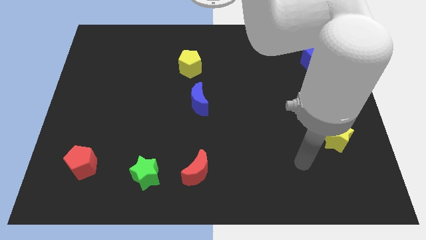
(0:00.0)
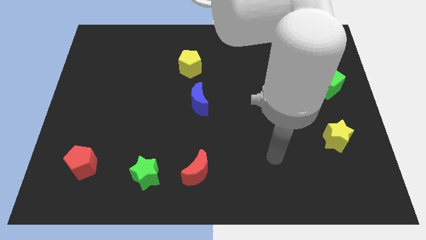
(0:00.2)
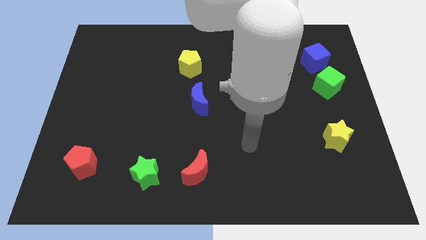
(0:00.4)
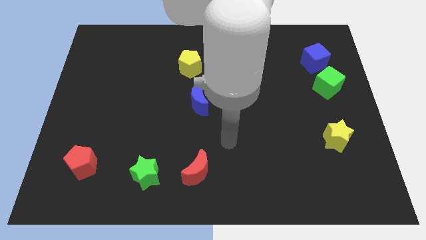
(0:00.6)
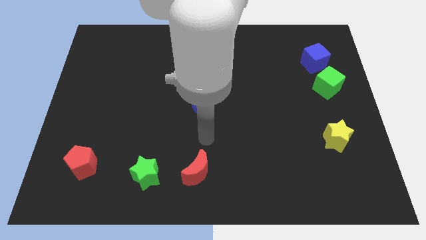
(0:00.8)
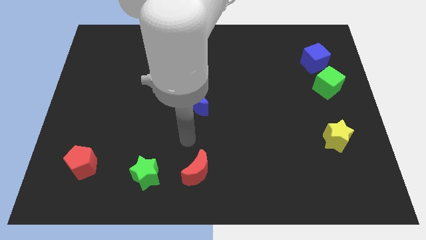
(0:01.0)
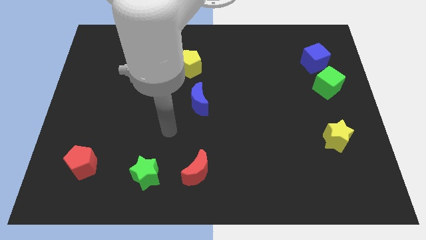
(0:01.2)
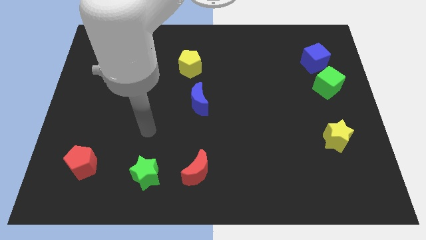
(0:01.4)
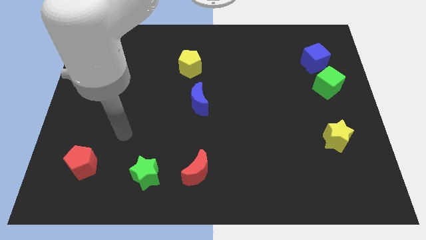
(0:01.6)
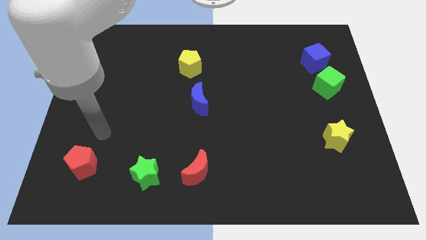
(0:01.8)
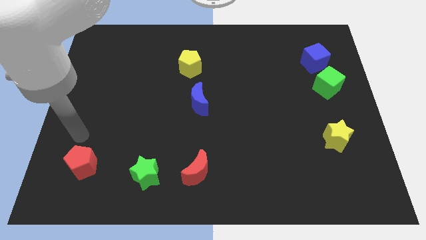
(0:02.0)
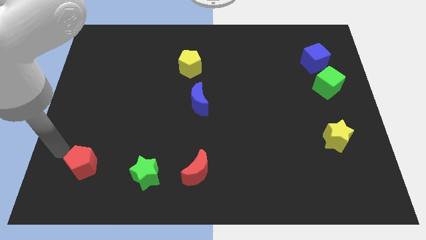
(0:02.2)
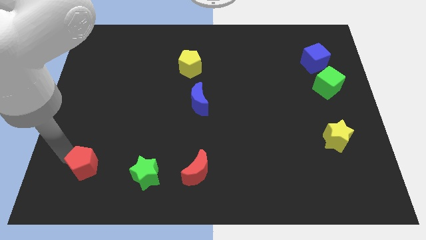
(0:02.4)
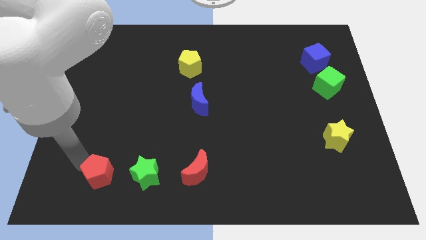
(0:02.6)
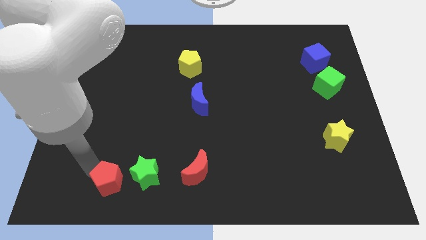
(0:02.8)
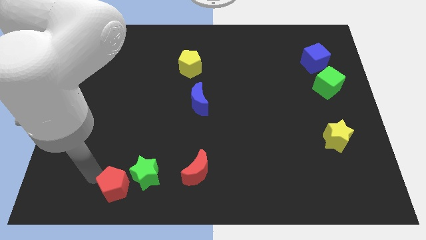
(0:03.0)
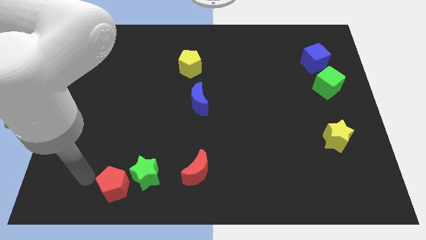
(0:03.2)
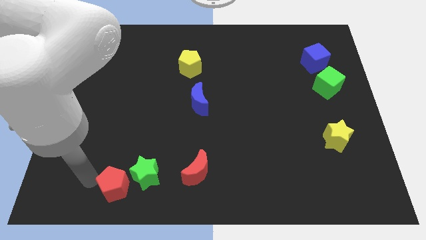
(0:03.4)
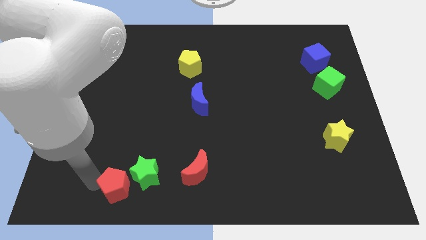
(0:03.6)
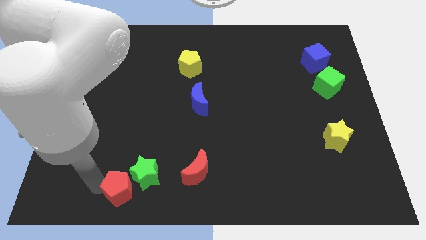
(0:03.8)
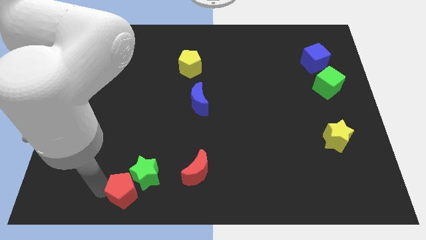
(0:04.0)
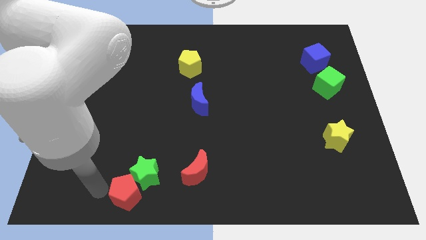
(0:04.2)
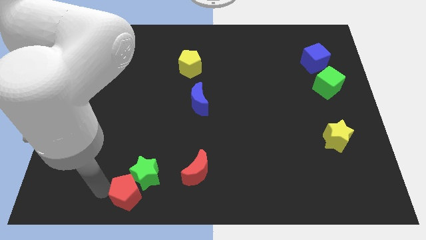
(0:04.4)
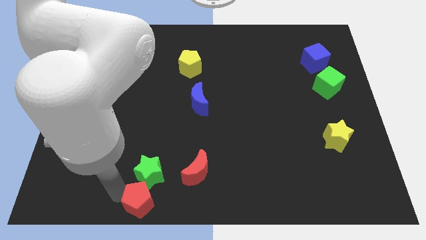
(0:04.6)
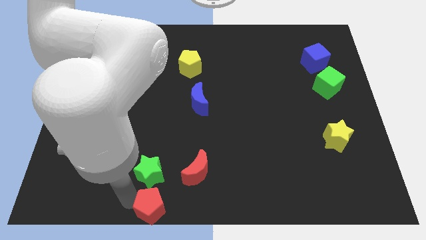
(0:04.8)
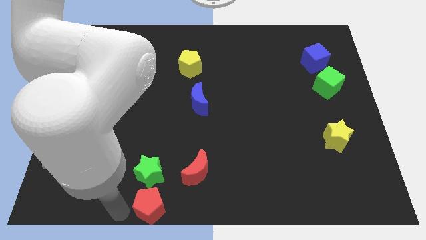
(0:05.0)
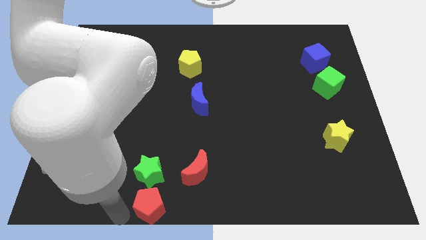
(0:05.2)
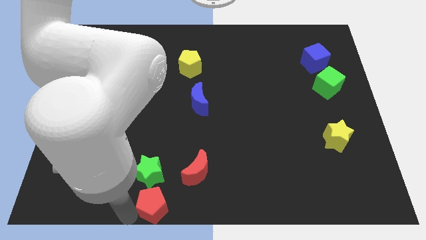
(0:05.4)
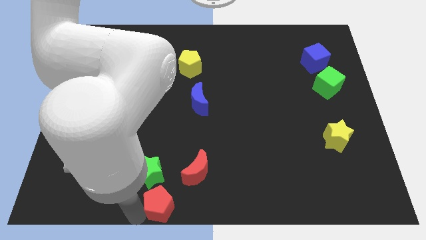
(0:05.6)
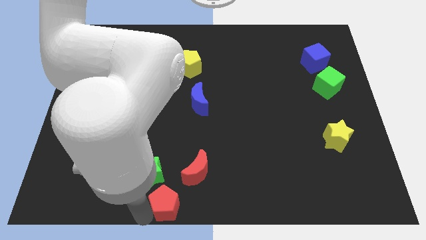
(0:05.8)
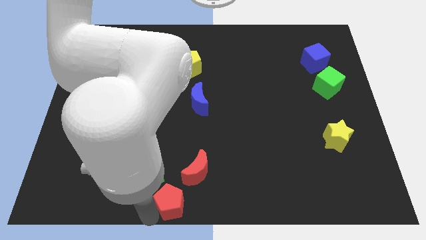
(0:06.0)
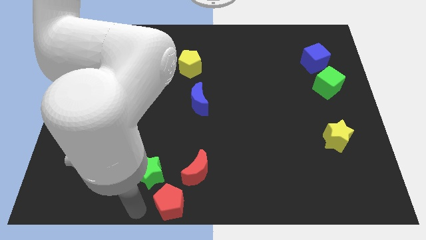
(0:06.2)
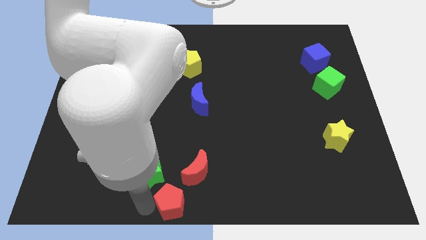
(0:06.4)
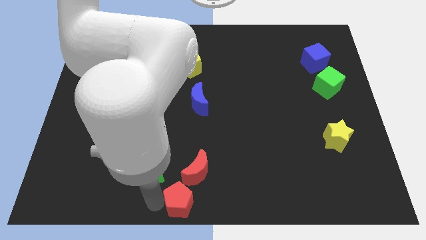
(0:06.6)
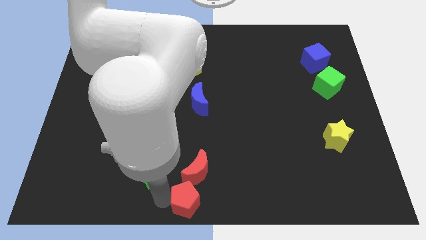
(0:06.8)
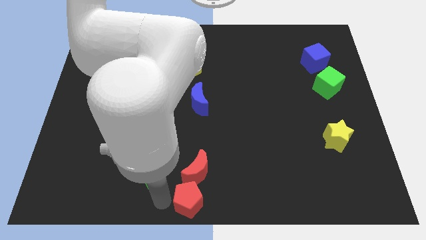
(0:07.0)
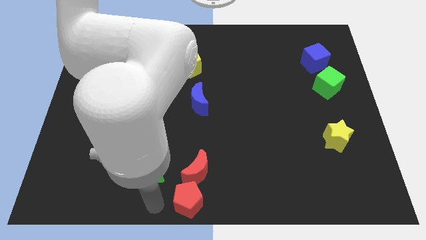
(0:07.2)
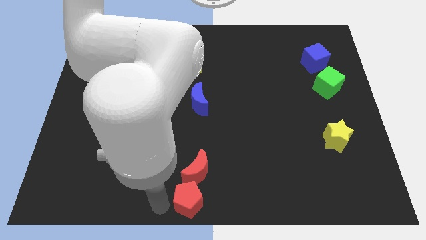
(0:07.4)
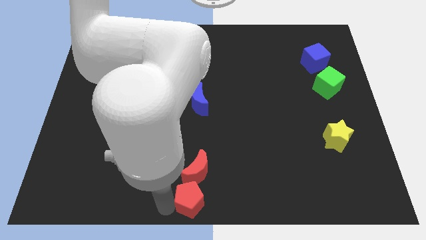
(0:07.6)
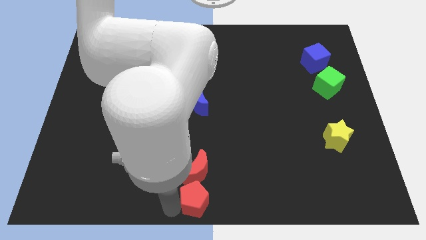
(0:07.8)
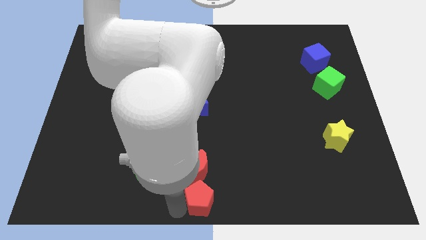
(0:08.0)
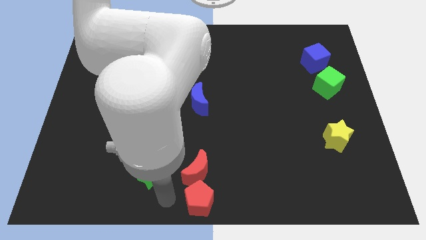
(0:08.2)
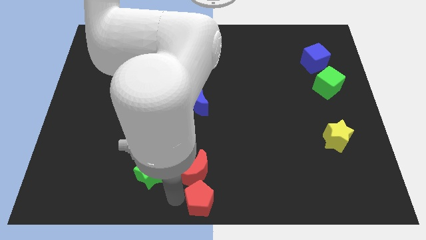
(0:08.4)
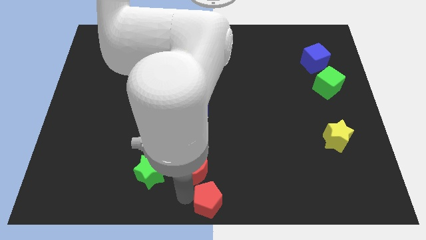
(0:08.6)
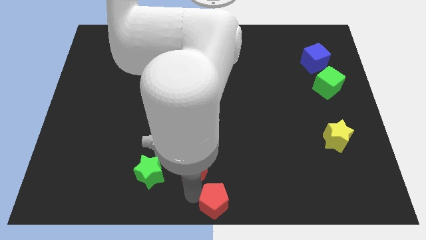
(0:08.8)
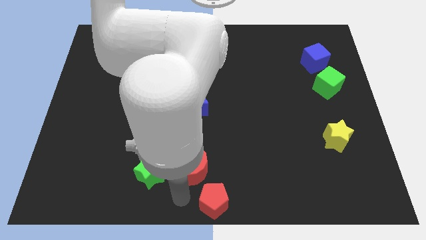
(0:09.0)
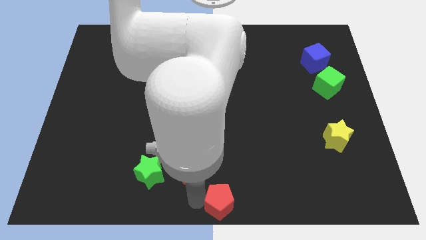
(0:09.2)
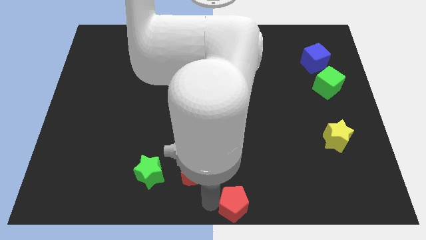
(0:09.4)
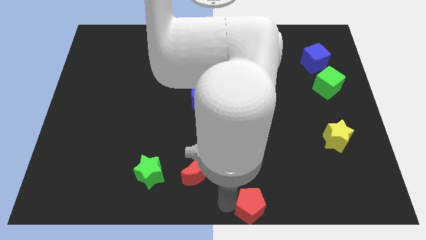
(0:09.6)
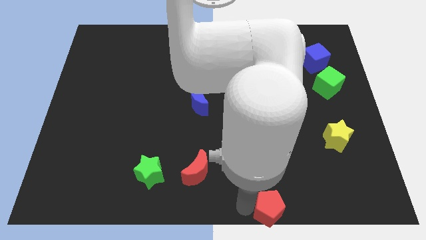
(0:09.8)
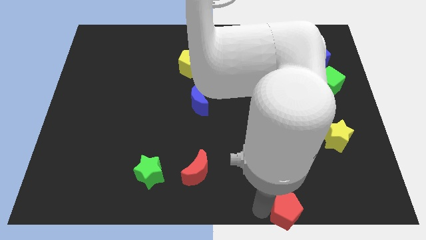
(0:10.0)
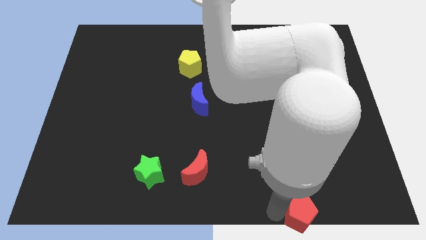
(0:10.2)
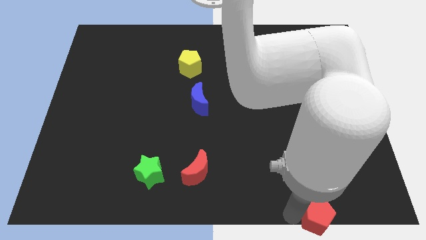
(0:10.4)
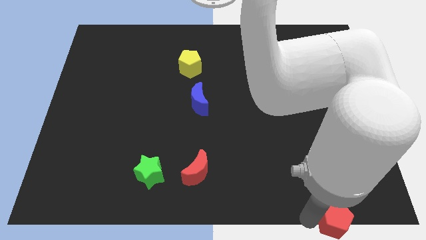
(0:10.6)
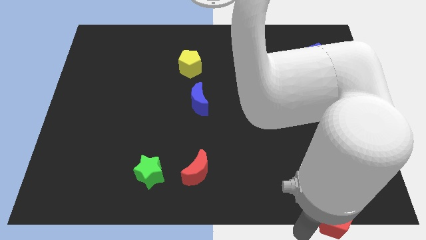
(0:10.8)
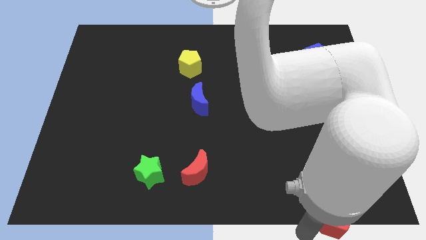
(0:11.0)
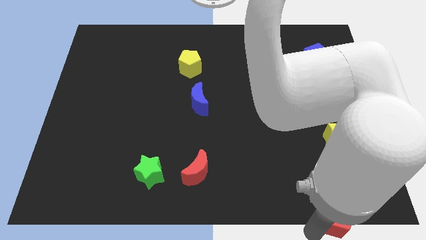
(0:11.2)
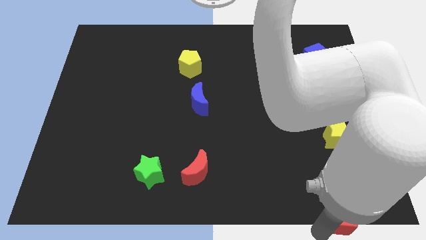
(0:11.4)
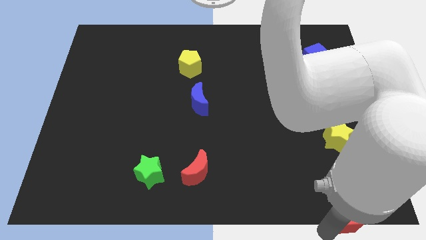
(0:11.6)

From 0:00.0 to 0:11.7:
move the red pentagon to the bottom right
